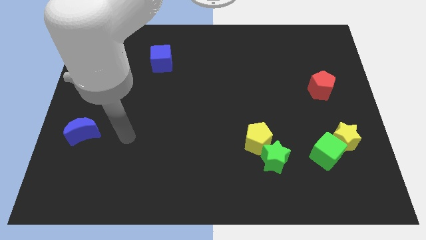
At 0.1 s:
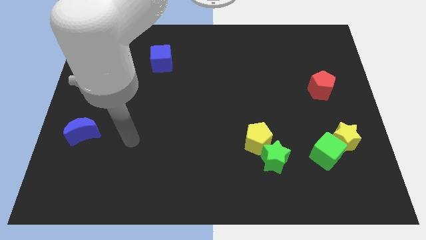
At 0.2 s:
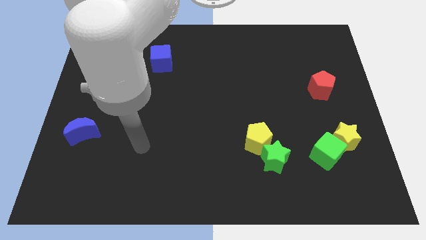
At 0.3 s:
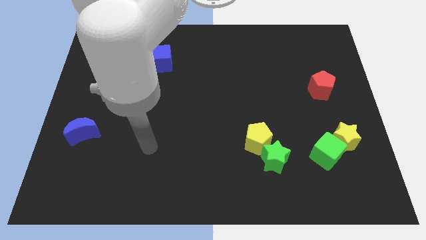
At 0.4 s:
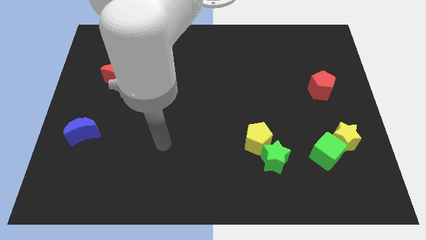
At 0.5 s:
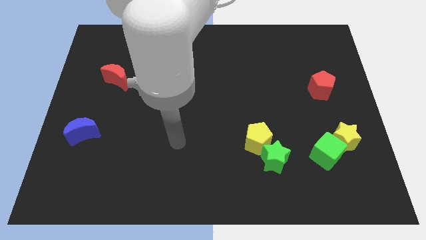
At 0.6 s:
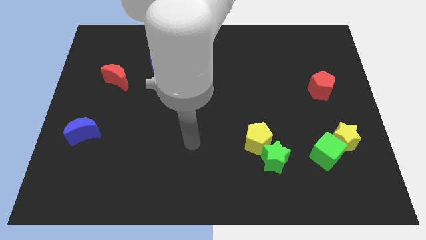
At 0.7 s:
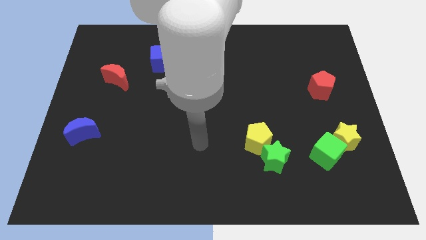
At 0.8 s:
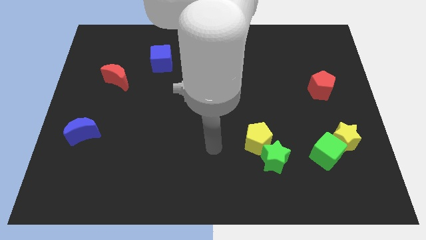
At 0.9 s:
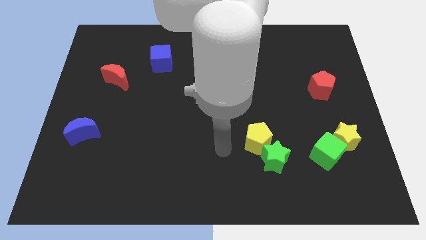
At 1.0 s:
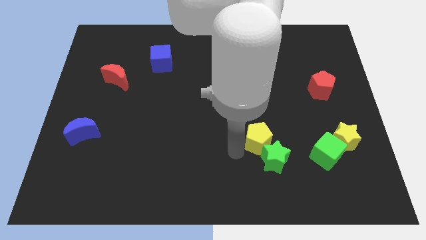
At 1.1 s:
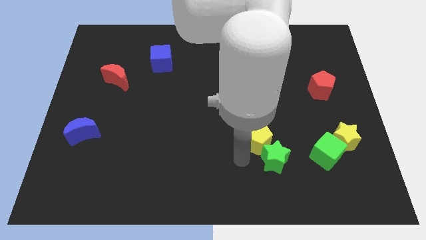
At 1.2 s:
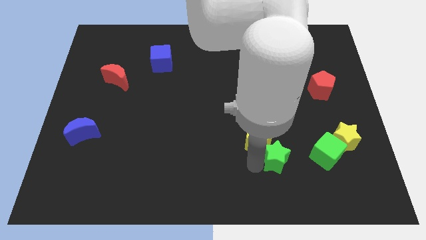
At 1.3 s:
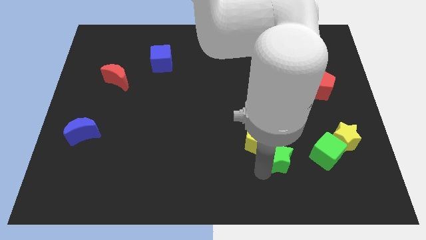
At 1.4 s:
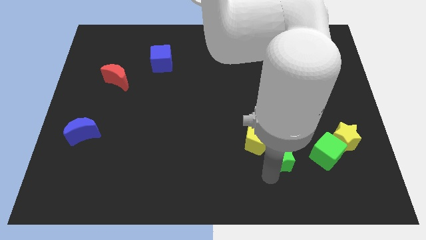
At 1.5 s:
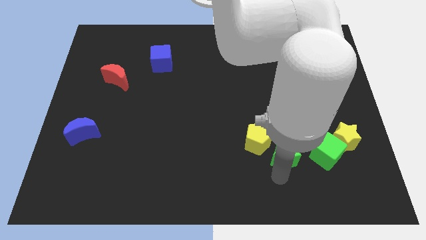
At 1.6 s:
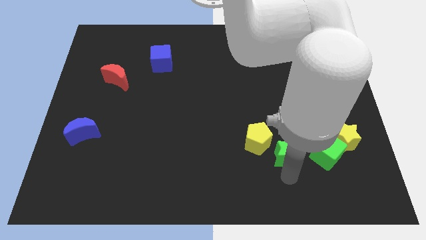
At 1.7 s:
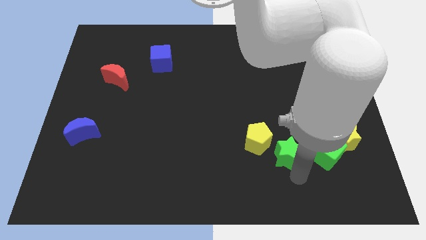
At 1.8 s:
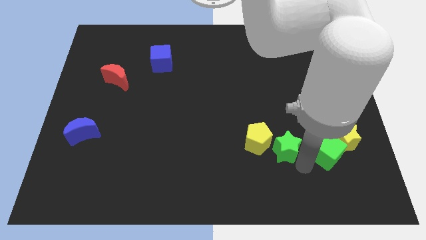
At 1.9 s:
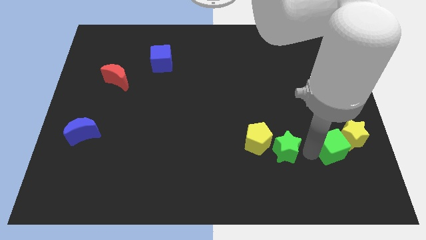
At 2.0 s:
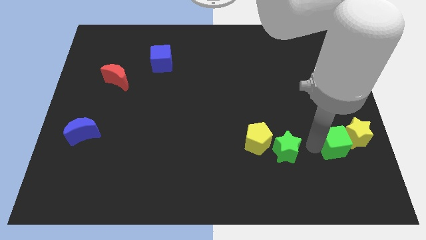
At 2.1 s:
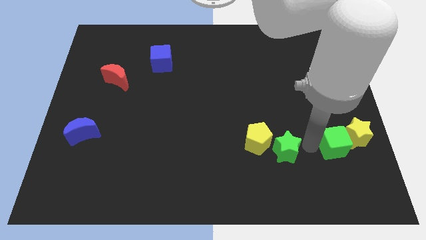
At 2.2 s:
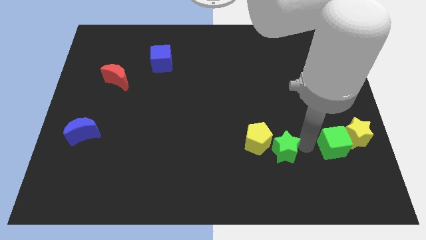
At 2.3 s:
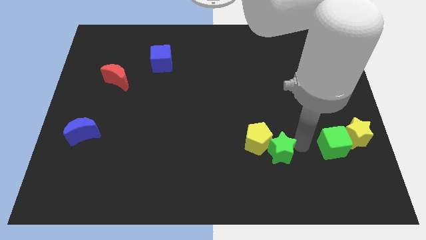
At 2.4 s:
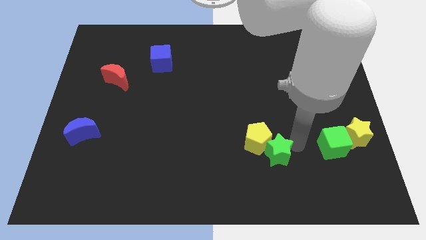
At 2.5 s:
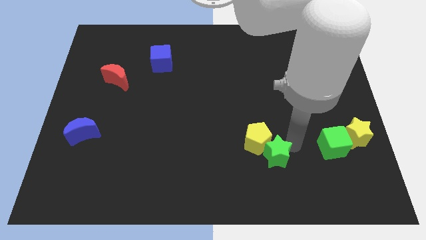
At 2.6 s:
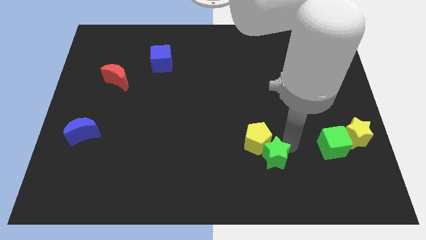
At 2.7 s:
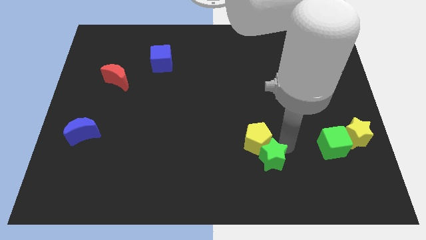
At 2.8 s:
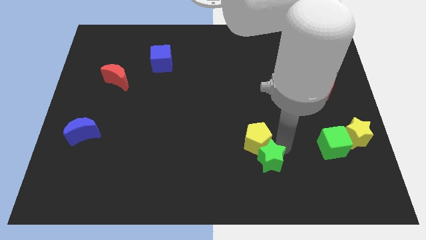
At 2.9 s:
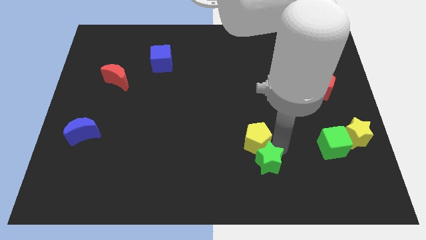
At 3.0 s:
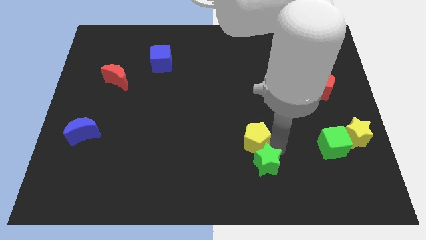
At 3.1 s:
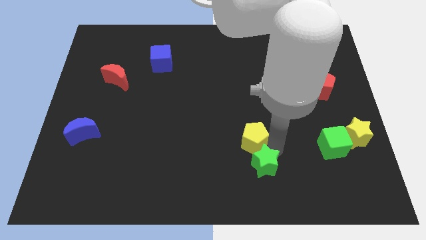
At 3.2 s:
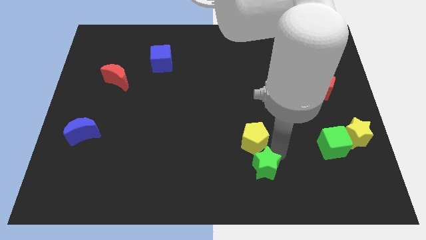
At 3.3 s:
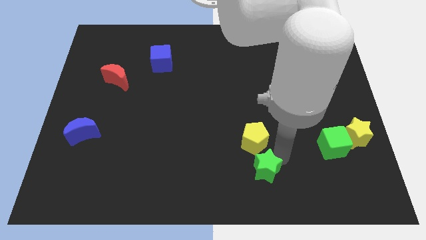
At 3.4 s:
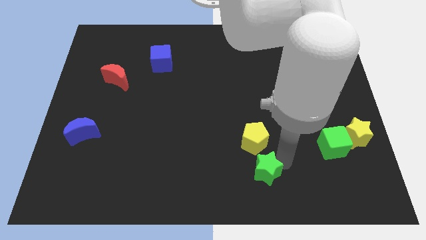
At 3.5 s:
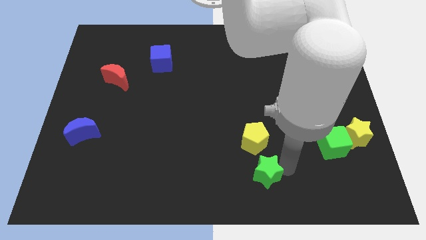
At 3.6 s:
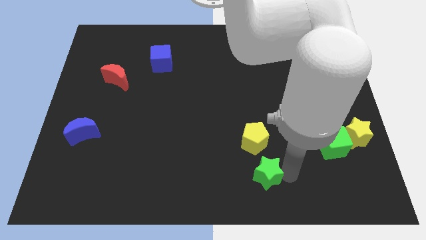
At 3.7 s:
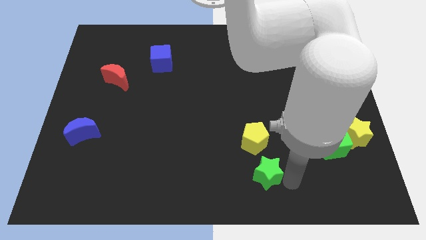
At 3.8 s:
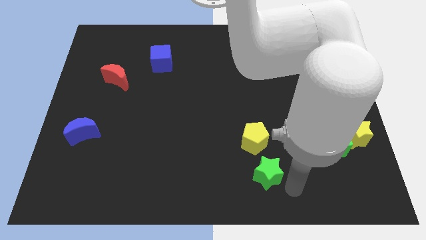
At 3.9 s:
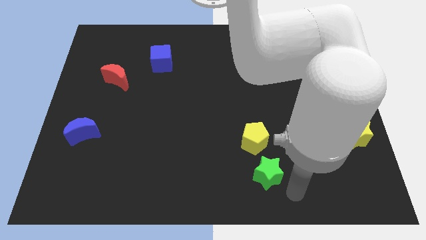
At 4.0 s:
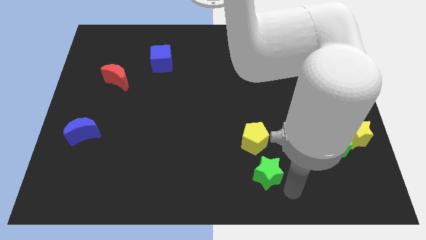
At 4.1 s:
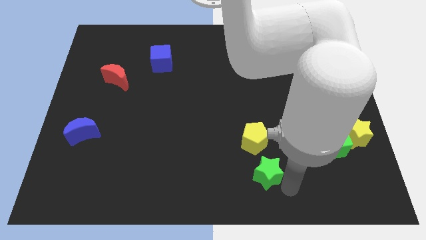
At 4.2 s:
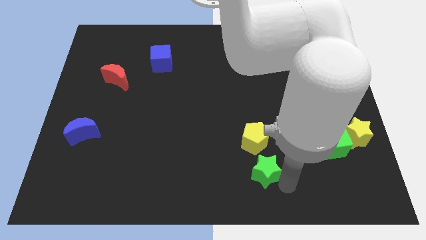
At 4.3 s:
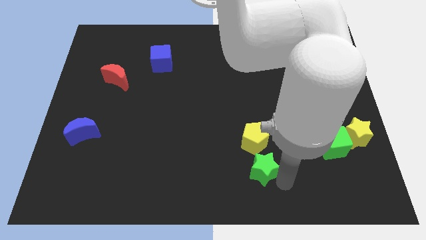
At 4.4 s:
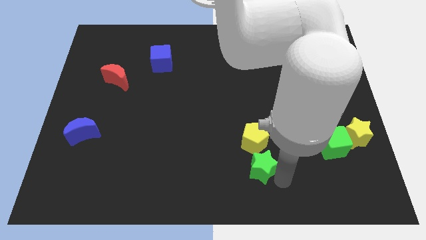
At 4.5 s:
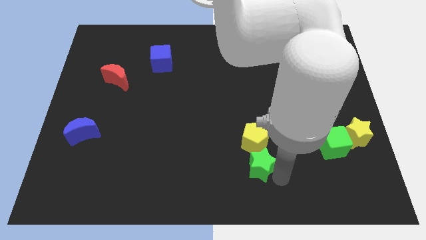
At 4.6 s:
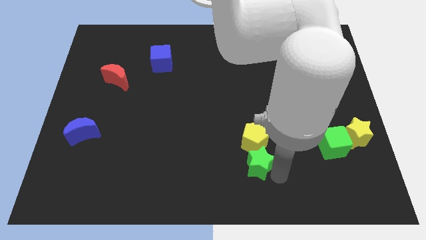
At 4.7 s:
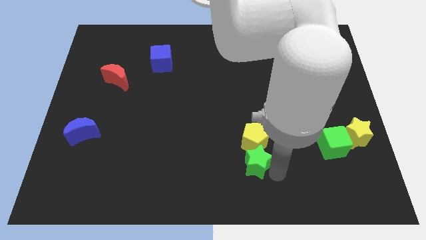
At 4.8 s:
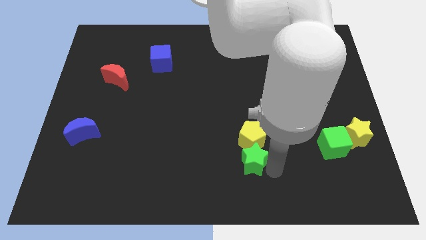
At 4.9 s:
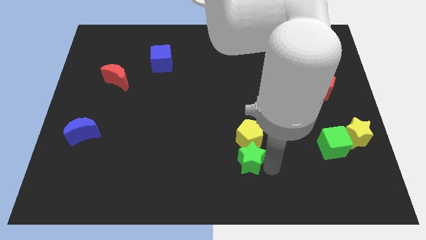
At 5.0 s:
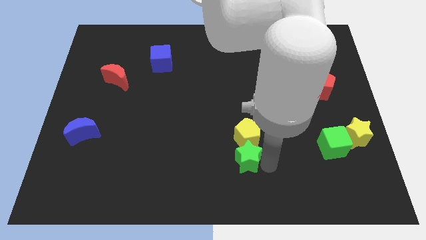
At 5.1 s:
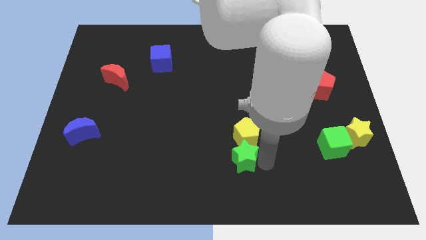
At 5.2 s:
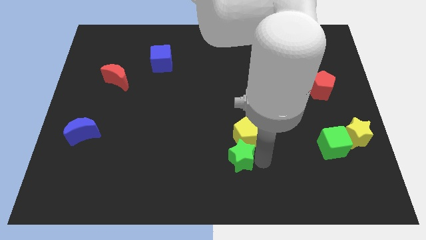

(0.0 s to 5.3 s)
slide the green star a little left

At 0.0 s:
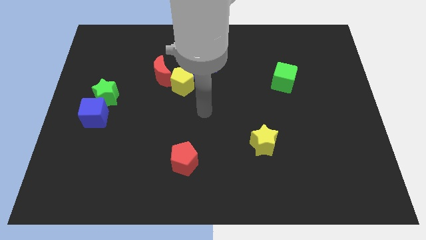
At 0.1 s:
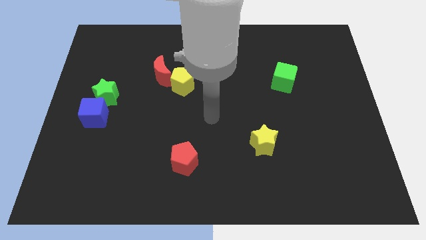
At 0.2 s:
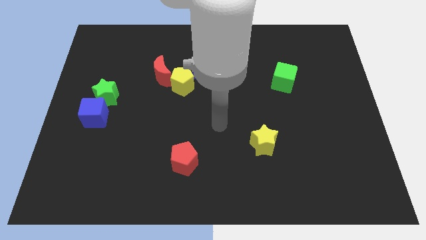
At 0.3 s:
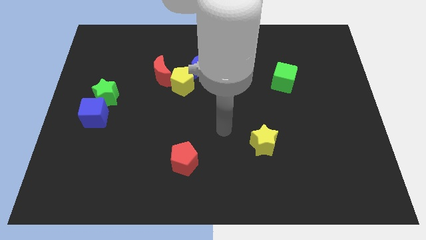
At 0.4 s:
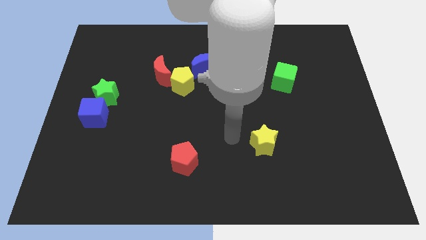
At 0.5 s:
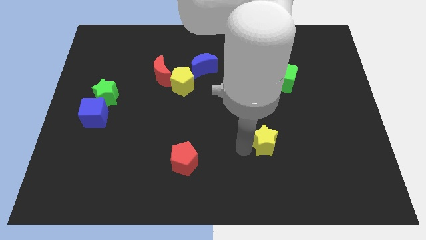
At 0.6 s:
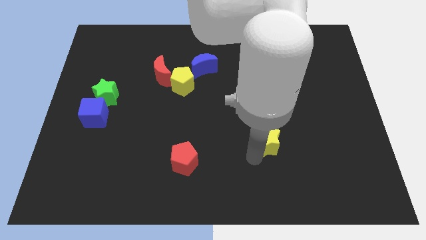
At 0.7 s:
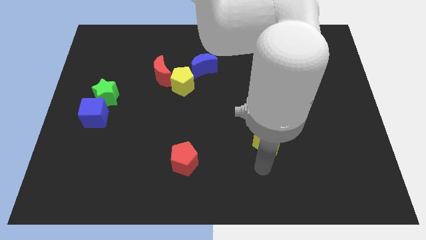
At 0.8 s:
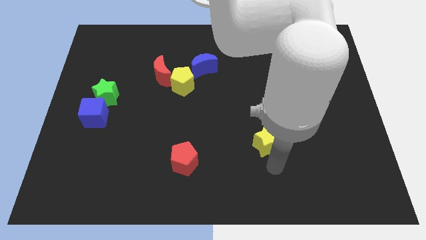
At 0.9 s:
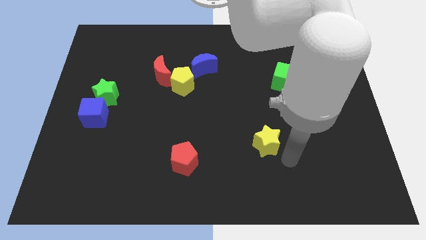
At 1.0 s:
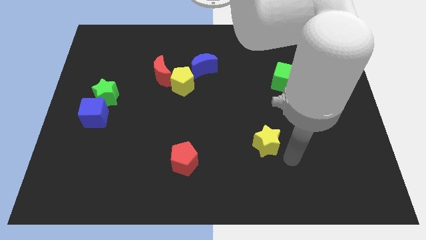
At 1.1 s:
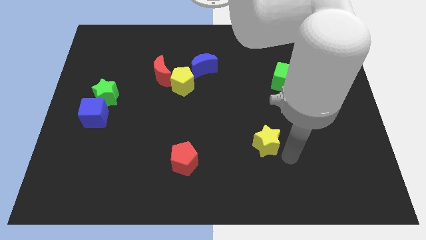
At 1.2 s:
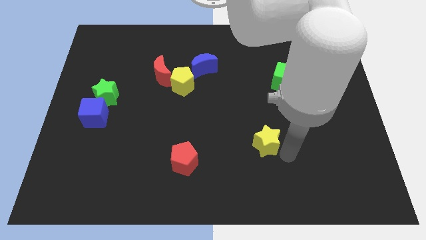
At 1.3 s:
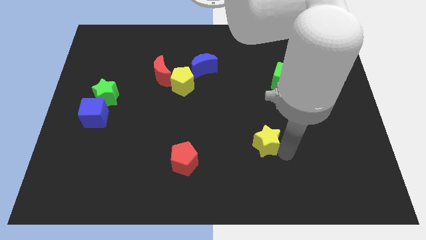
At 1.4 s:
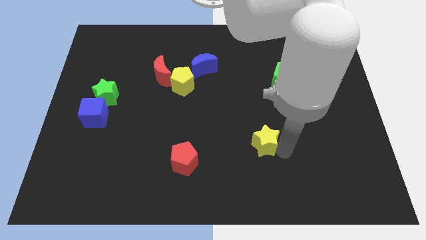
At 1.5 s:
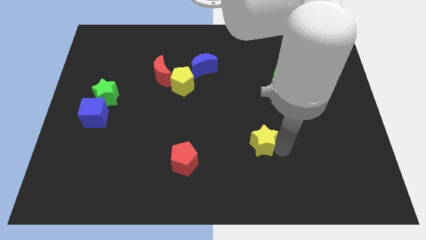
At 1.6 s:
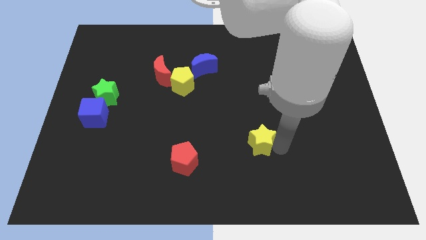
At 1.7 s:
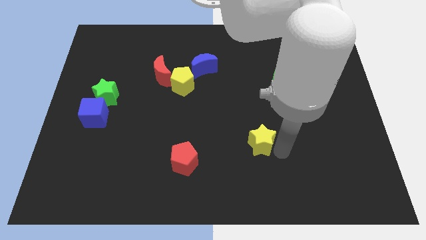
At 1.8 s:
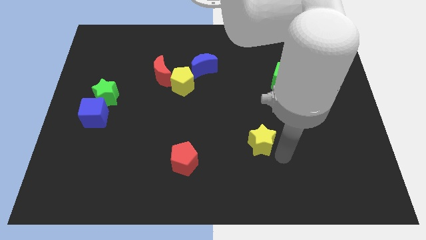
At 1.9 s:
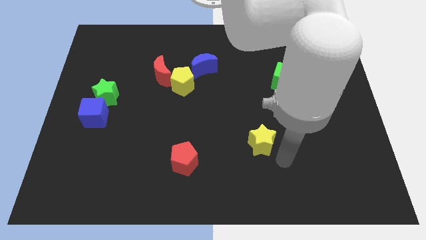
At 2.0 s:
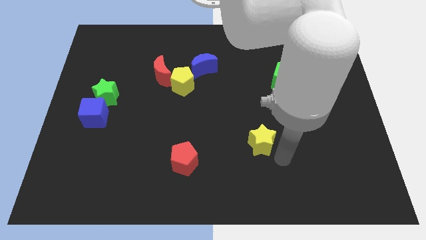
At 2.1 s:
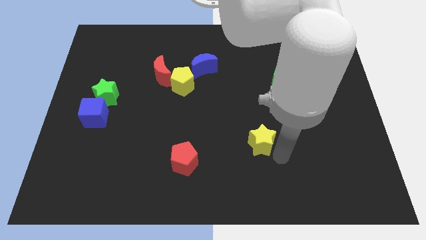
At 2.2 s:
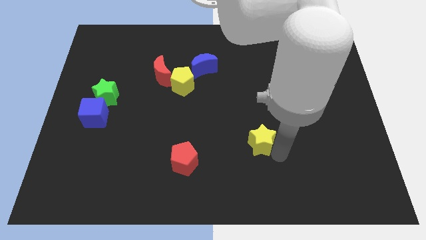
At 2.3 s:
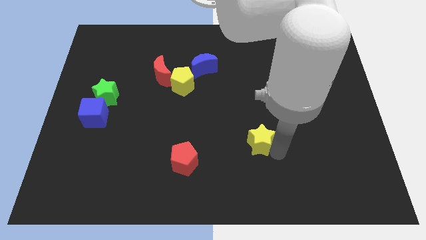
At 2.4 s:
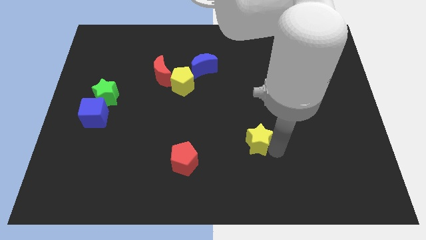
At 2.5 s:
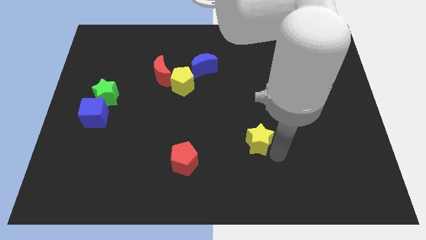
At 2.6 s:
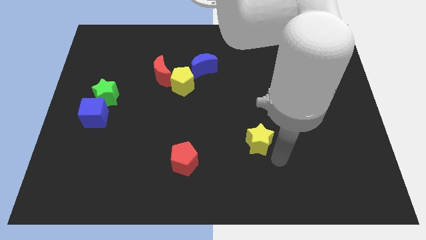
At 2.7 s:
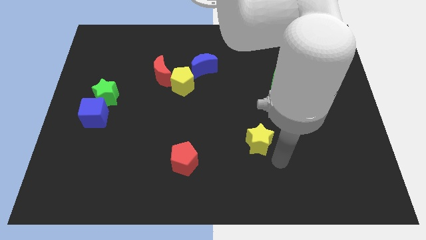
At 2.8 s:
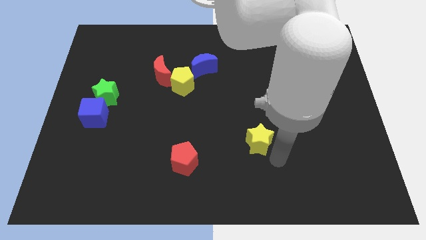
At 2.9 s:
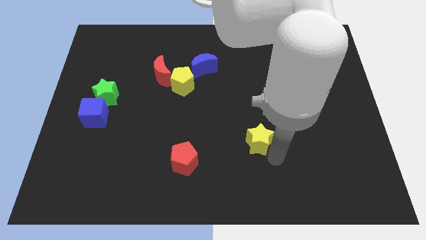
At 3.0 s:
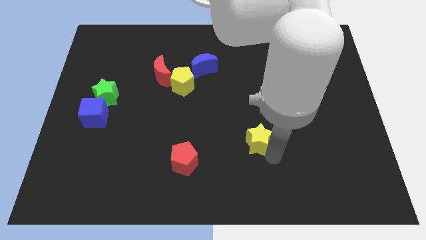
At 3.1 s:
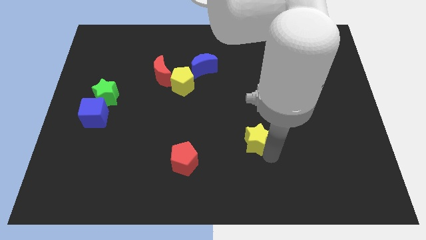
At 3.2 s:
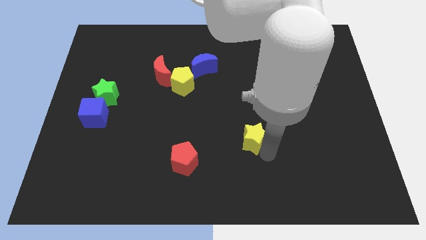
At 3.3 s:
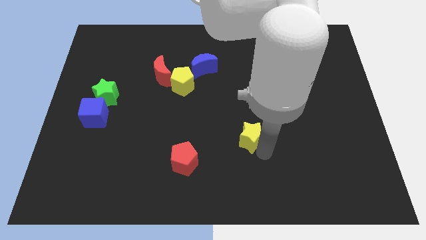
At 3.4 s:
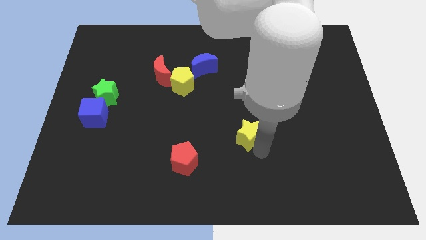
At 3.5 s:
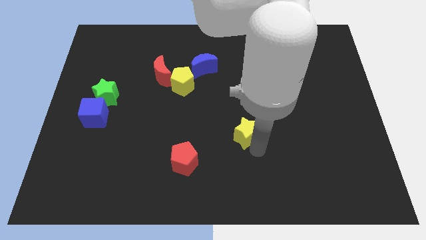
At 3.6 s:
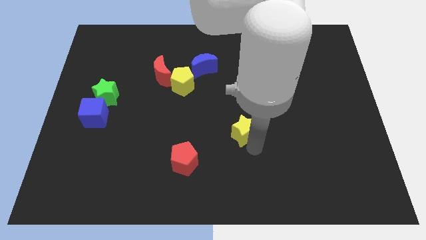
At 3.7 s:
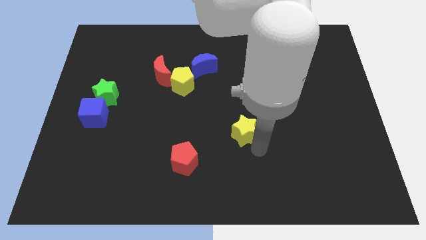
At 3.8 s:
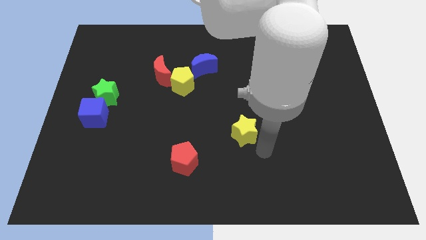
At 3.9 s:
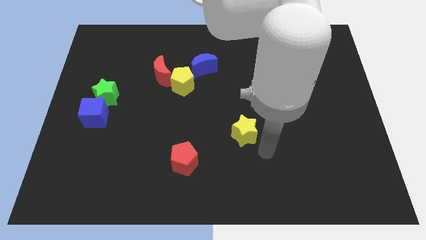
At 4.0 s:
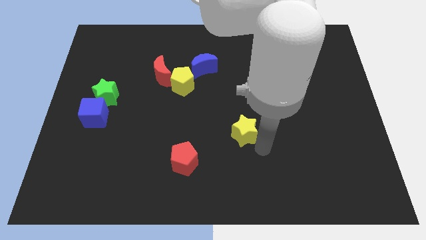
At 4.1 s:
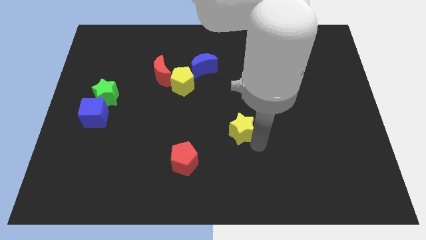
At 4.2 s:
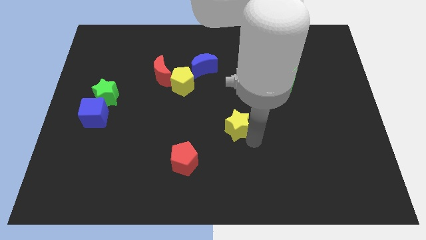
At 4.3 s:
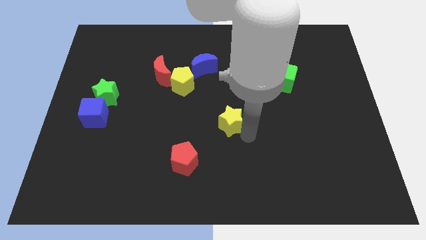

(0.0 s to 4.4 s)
slightly push the yellow star upwards and left
